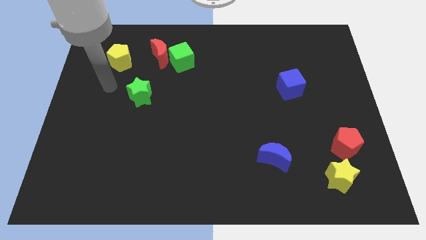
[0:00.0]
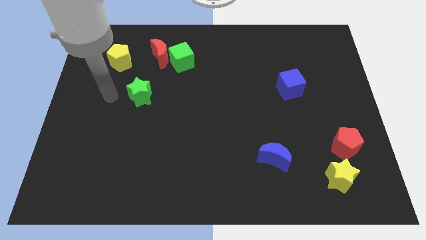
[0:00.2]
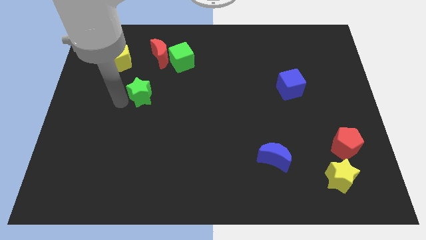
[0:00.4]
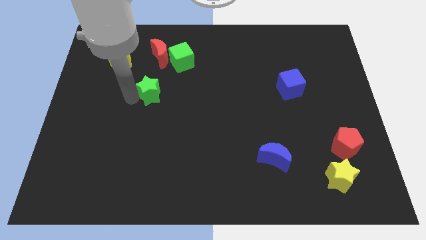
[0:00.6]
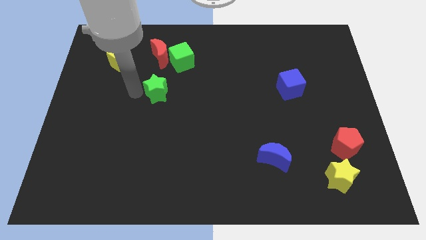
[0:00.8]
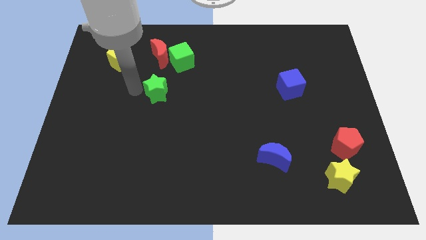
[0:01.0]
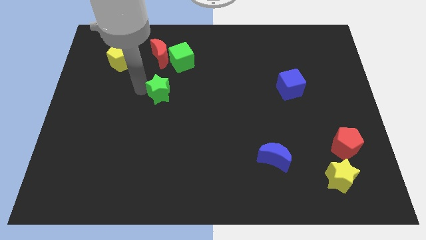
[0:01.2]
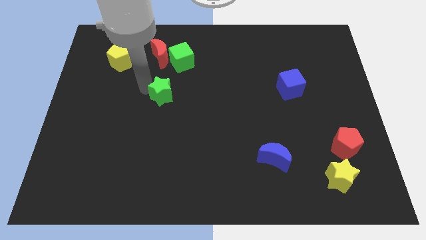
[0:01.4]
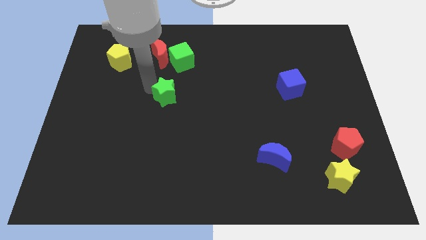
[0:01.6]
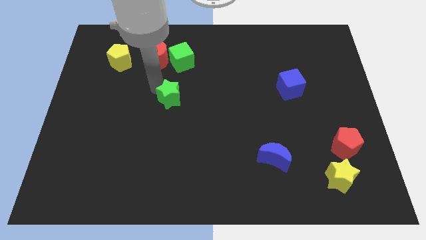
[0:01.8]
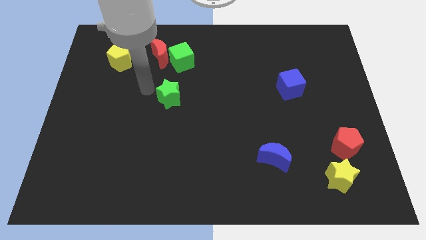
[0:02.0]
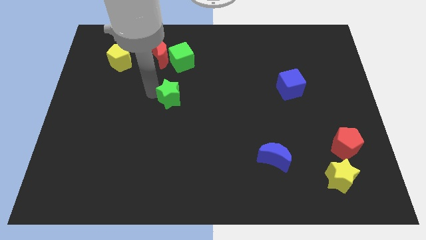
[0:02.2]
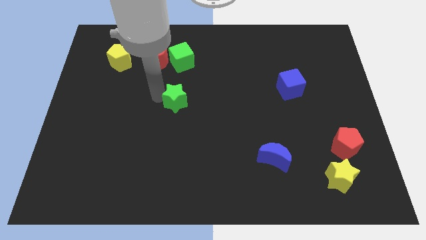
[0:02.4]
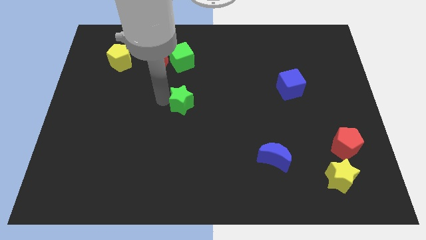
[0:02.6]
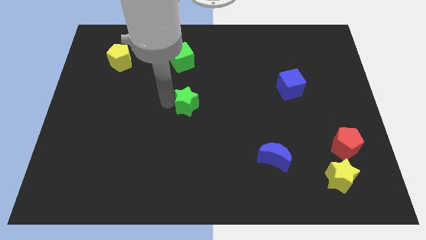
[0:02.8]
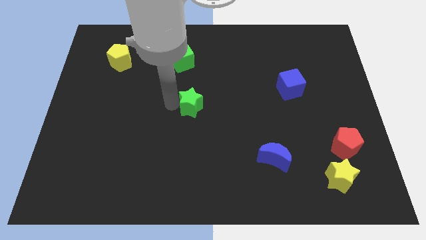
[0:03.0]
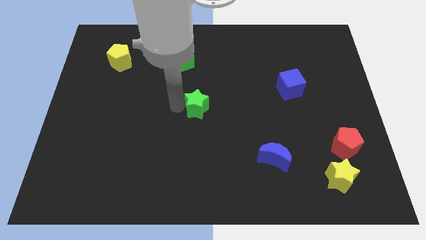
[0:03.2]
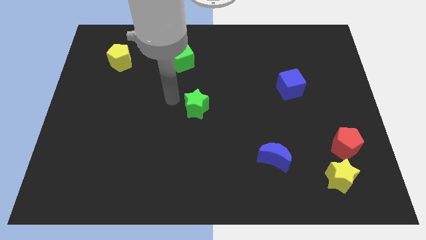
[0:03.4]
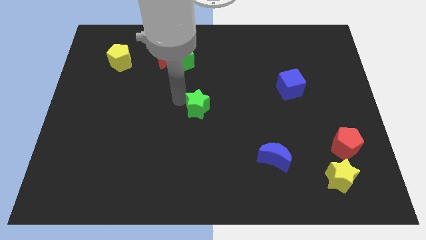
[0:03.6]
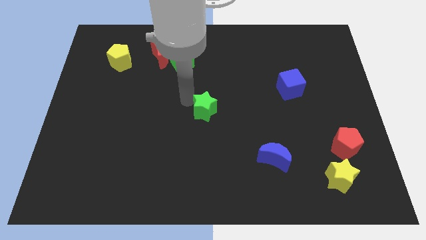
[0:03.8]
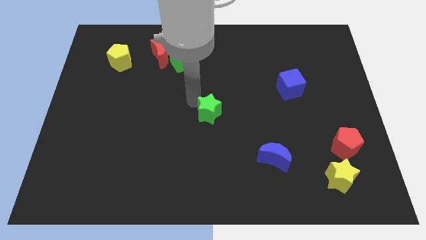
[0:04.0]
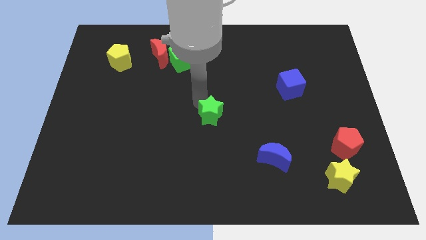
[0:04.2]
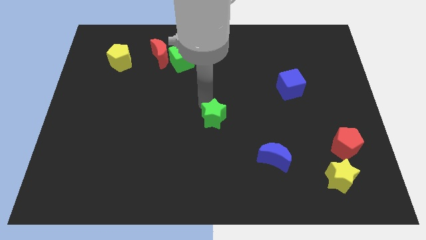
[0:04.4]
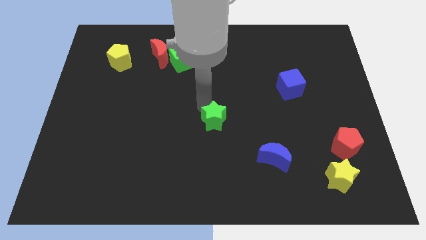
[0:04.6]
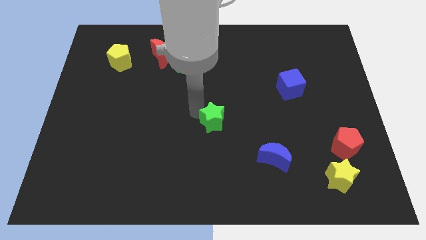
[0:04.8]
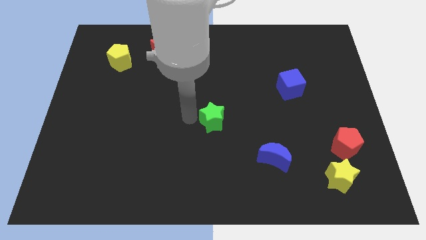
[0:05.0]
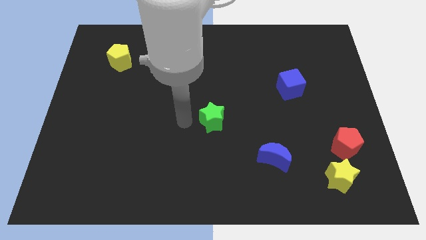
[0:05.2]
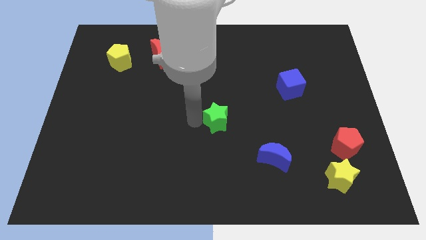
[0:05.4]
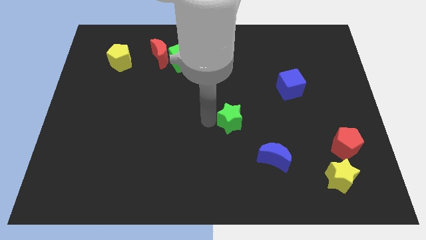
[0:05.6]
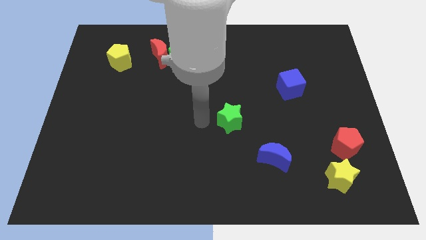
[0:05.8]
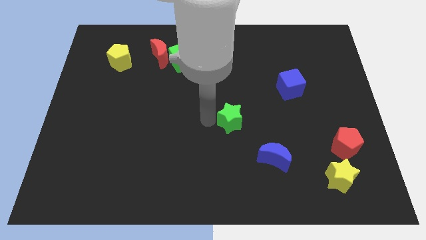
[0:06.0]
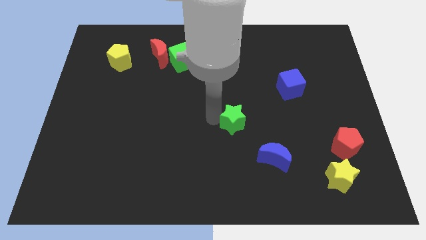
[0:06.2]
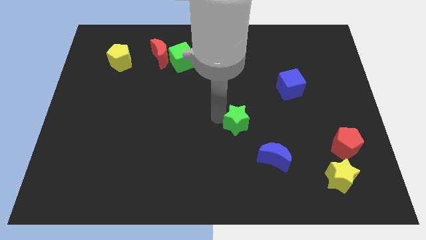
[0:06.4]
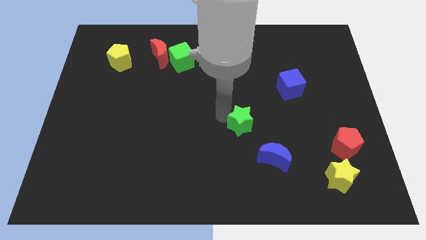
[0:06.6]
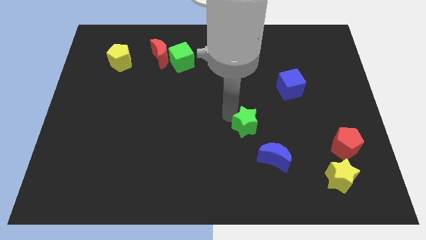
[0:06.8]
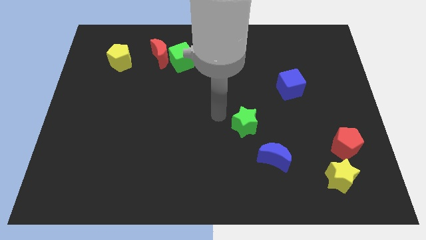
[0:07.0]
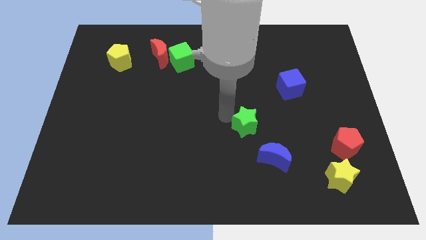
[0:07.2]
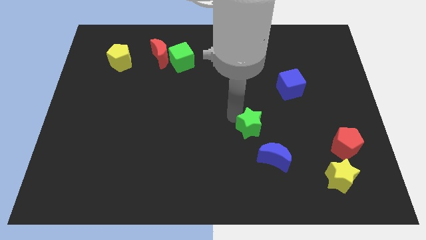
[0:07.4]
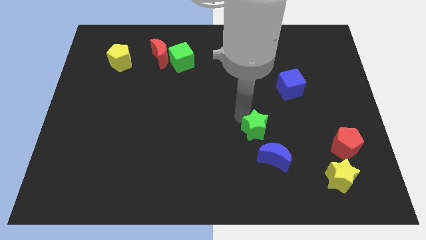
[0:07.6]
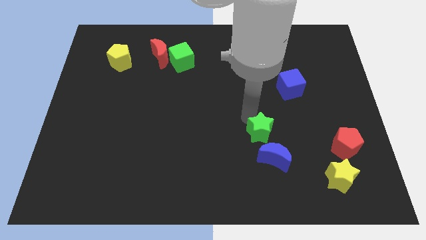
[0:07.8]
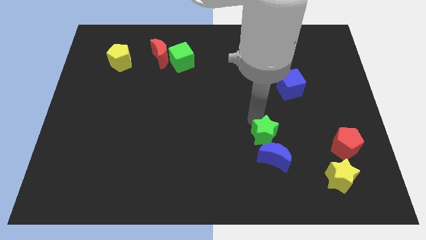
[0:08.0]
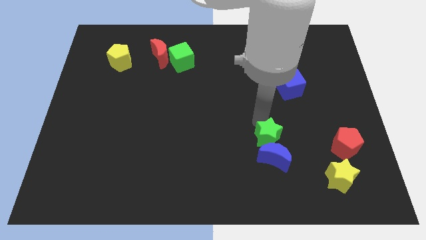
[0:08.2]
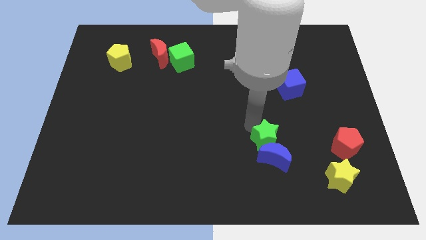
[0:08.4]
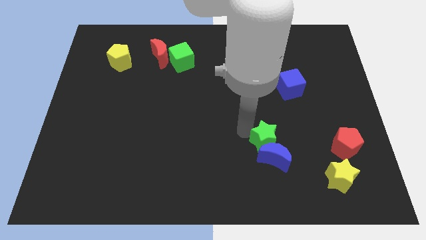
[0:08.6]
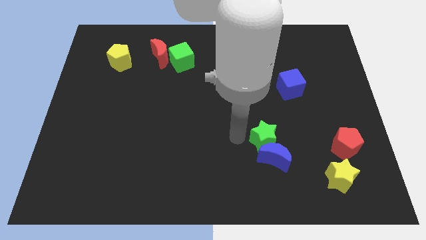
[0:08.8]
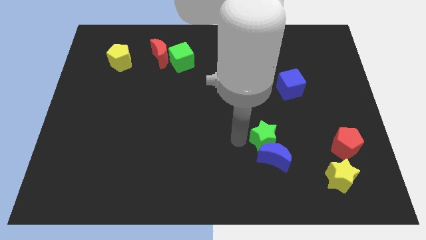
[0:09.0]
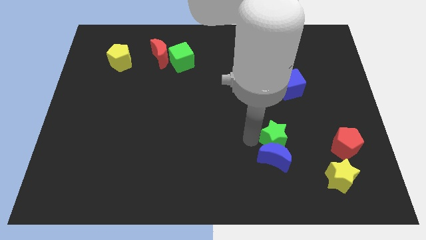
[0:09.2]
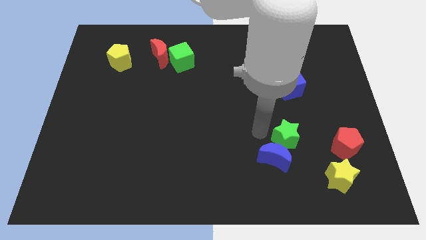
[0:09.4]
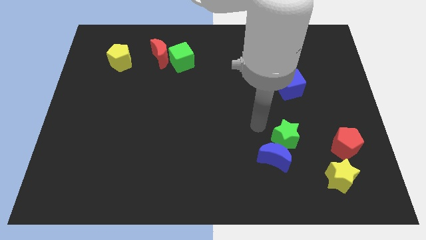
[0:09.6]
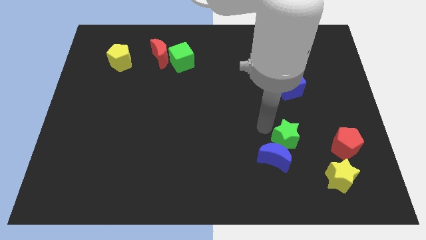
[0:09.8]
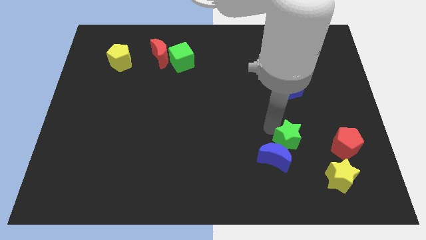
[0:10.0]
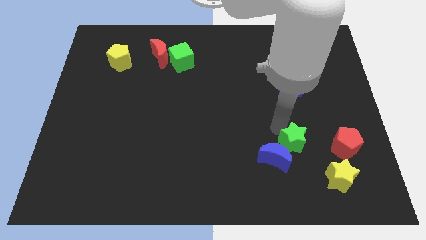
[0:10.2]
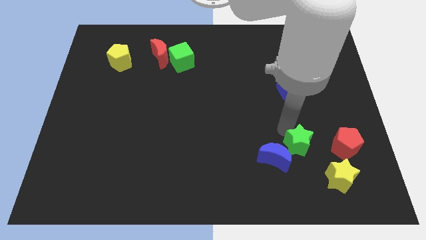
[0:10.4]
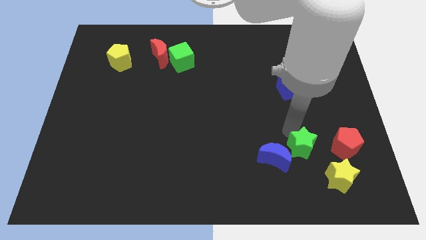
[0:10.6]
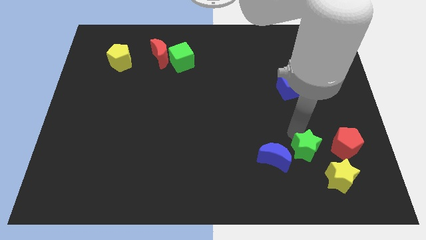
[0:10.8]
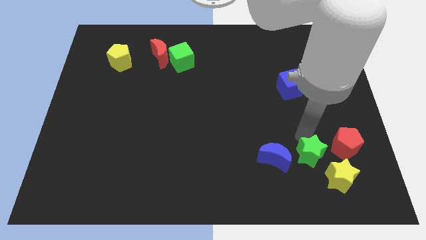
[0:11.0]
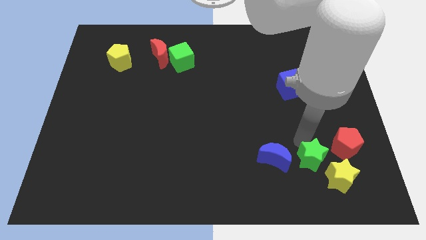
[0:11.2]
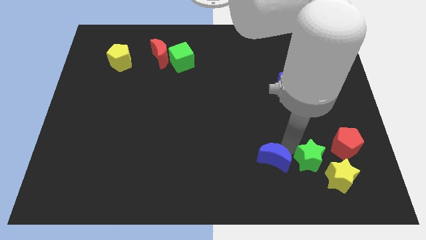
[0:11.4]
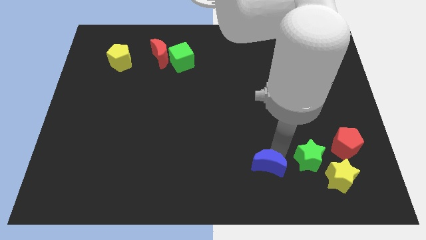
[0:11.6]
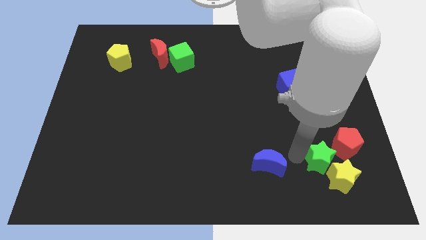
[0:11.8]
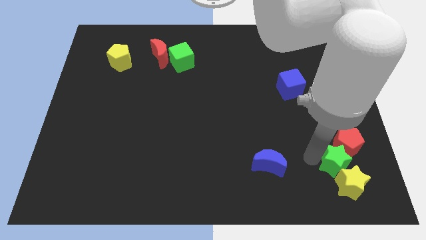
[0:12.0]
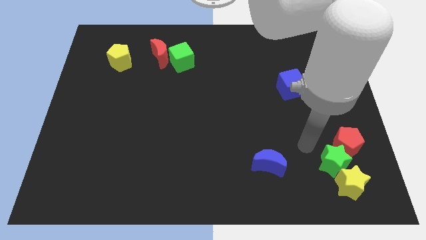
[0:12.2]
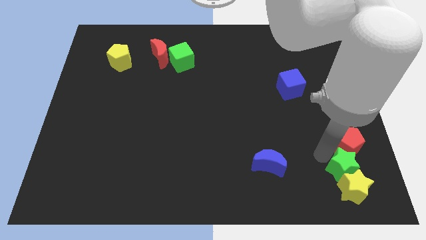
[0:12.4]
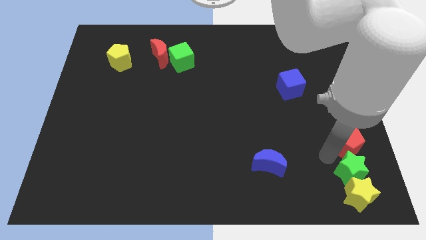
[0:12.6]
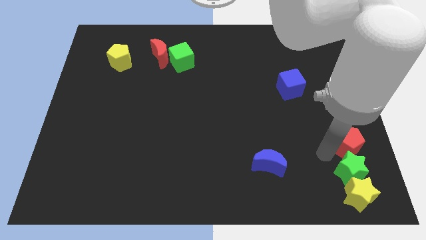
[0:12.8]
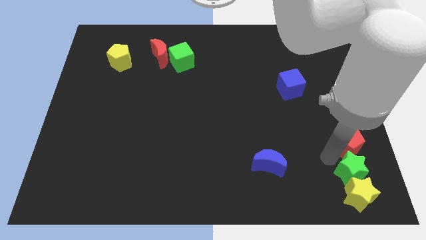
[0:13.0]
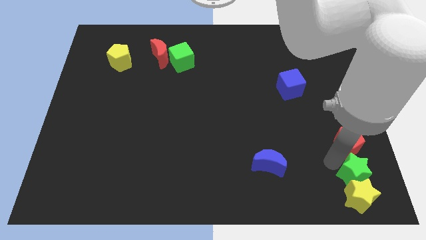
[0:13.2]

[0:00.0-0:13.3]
slide the green star to the bottom right of the board
